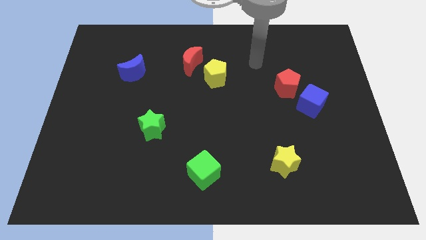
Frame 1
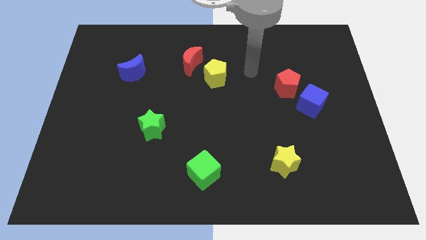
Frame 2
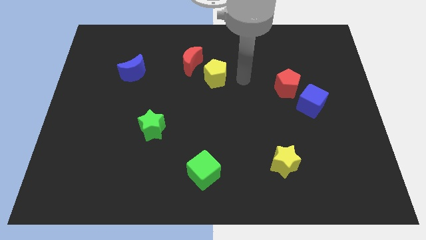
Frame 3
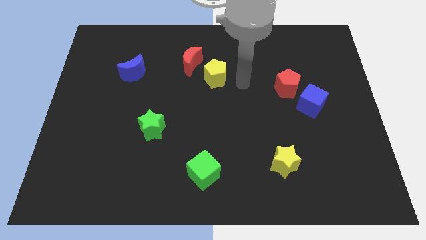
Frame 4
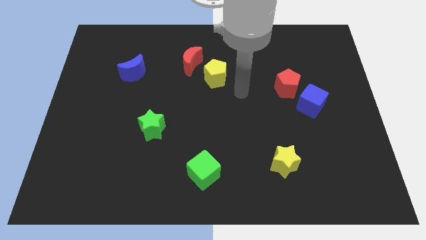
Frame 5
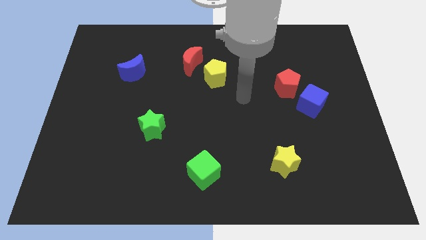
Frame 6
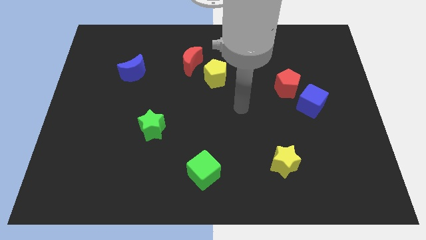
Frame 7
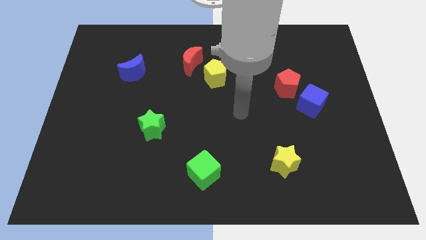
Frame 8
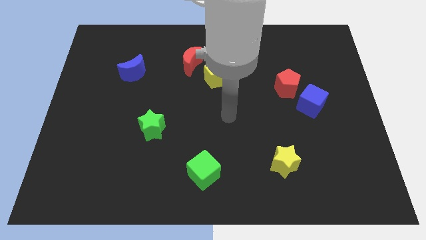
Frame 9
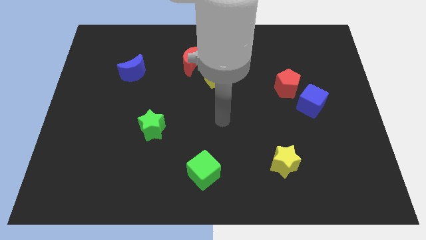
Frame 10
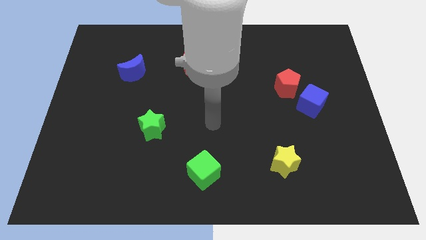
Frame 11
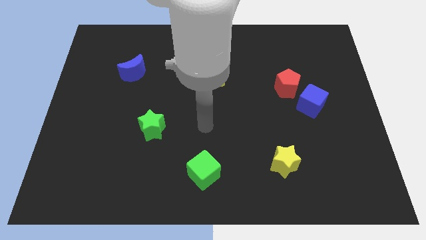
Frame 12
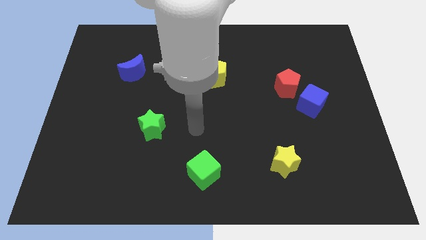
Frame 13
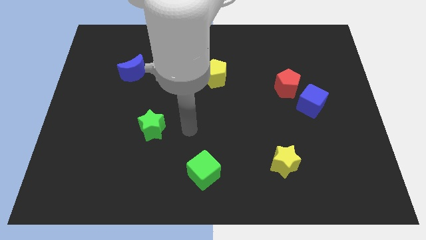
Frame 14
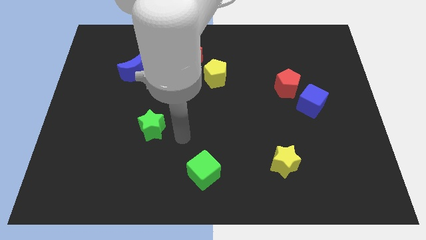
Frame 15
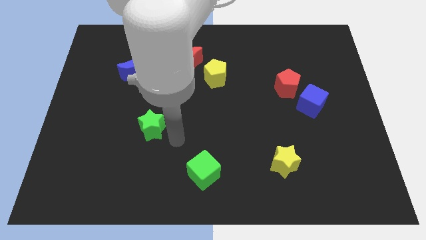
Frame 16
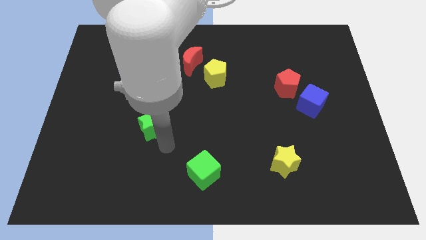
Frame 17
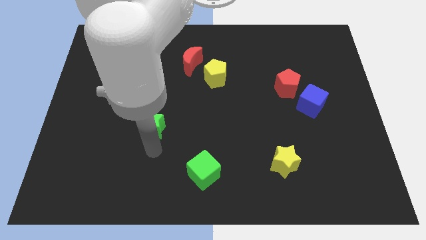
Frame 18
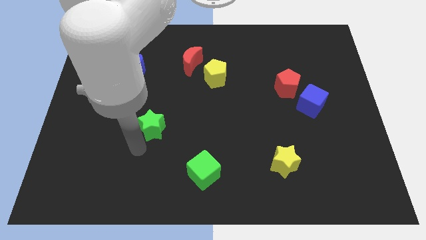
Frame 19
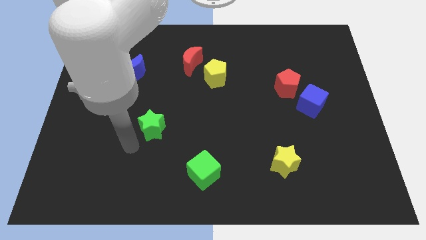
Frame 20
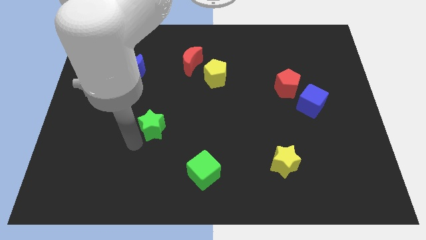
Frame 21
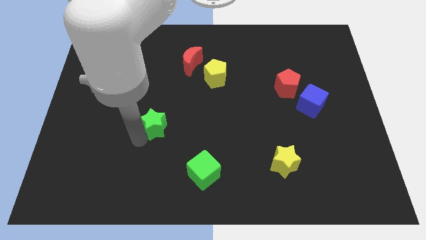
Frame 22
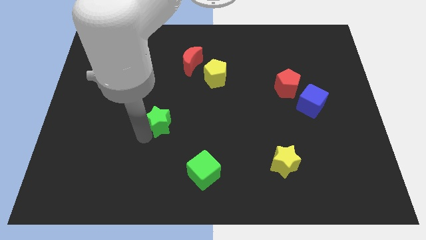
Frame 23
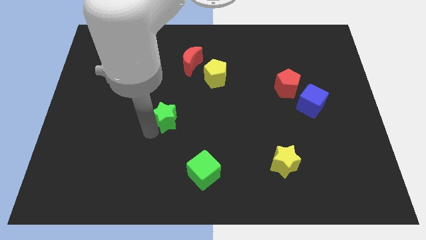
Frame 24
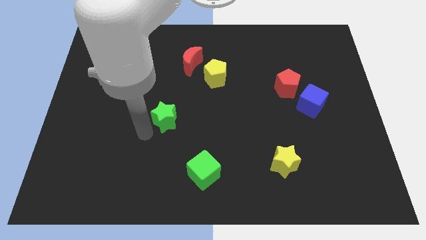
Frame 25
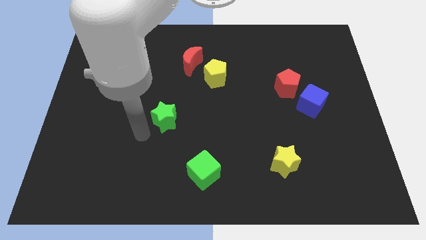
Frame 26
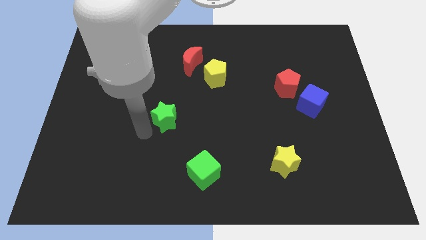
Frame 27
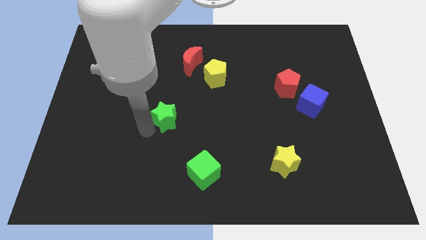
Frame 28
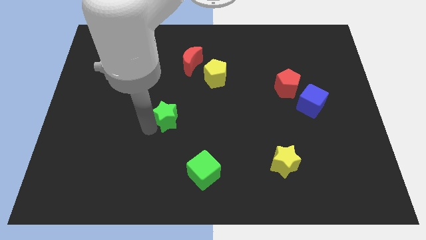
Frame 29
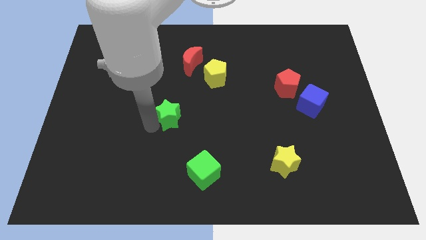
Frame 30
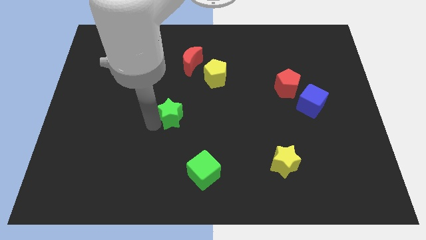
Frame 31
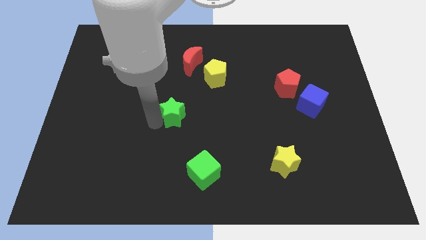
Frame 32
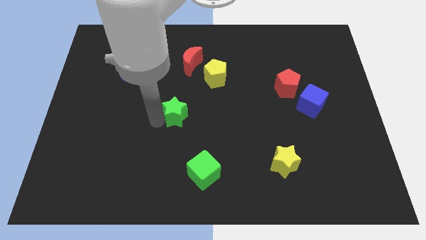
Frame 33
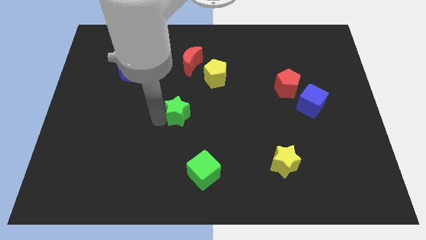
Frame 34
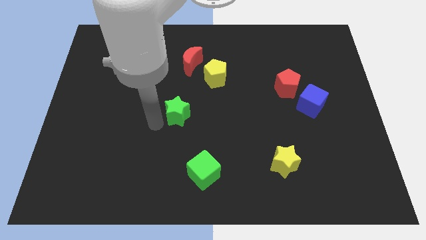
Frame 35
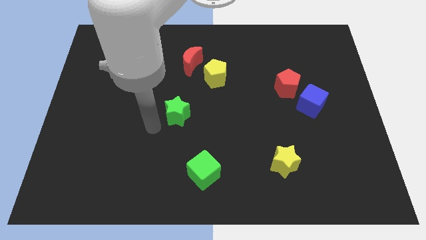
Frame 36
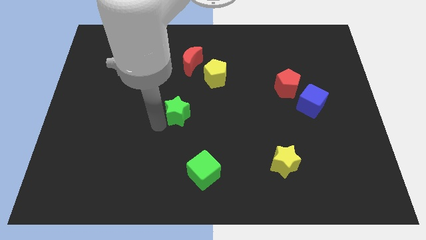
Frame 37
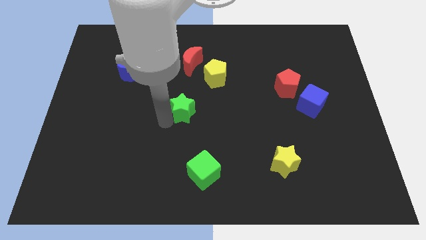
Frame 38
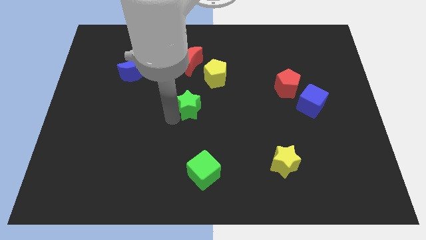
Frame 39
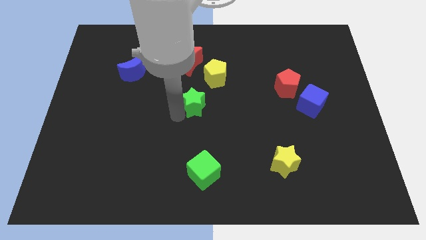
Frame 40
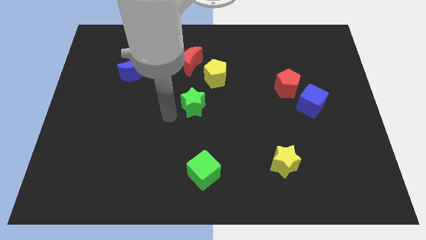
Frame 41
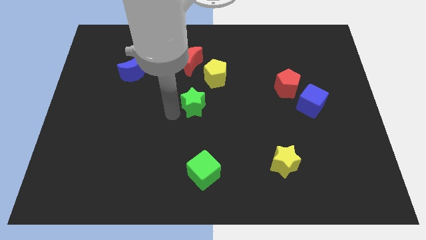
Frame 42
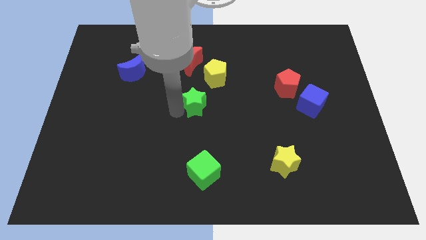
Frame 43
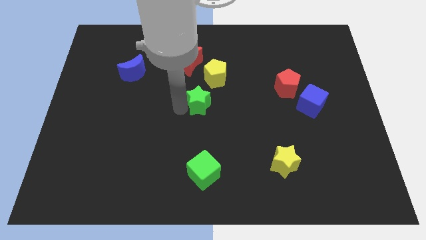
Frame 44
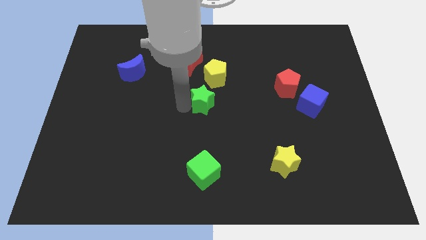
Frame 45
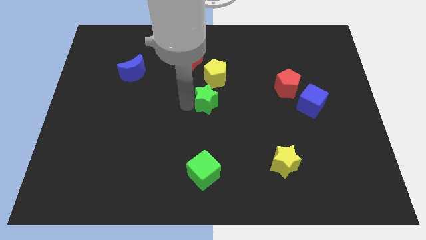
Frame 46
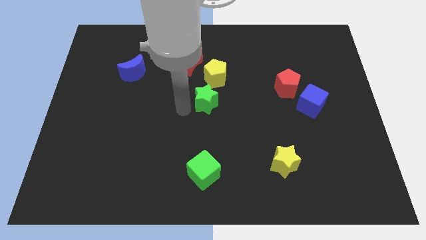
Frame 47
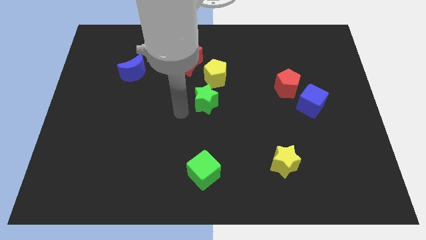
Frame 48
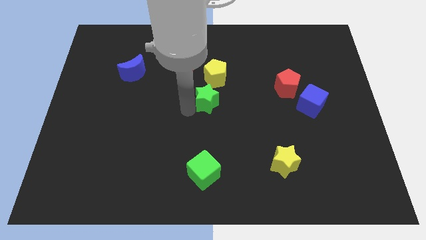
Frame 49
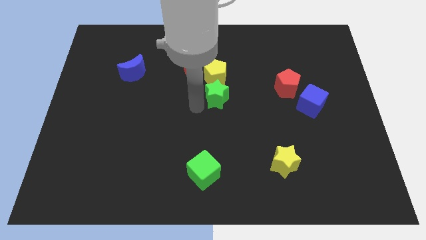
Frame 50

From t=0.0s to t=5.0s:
push the green star to the bottom right side of the yellow pentagon

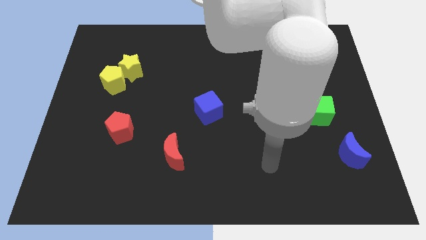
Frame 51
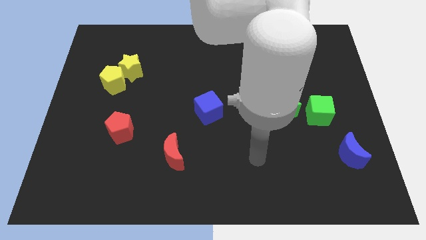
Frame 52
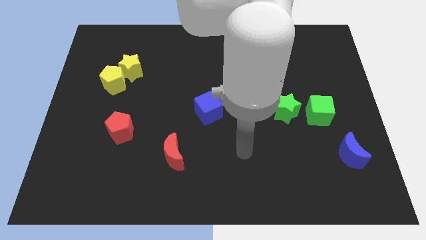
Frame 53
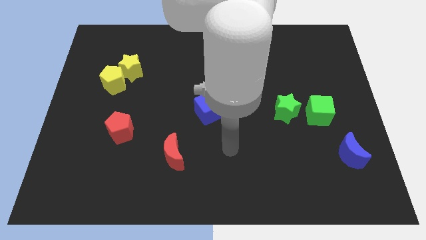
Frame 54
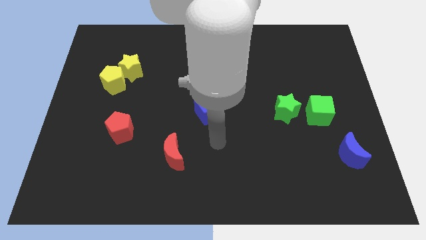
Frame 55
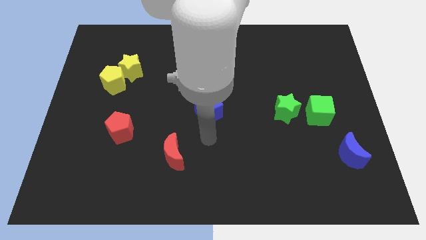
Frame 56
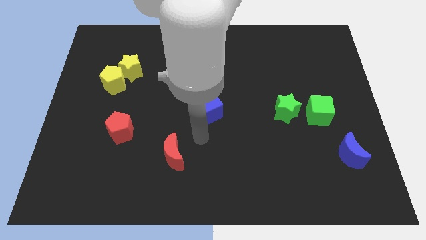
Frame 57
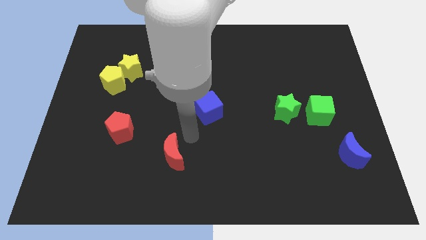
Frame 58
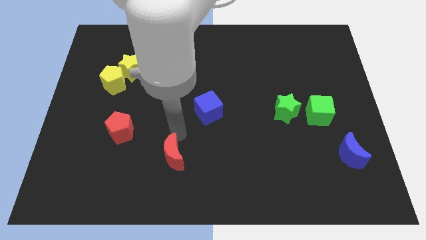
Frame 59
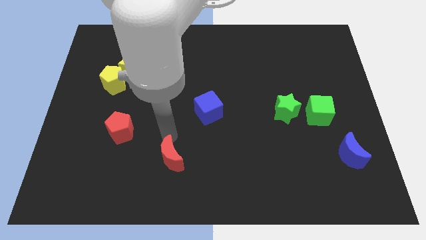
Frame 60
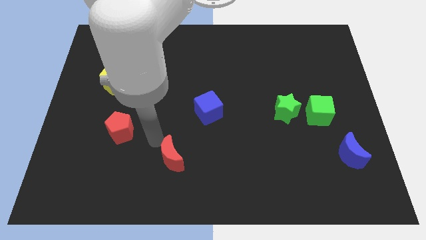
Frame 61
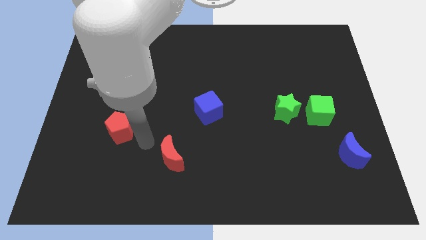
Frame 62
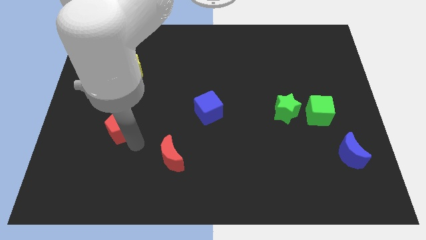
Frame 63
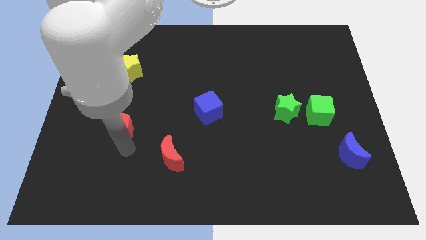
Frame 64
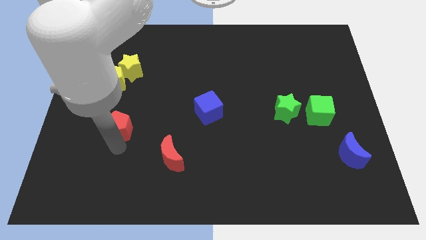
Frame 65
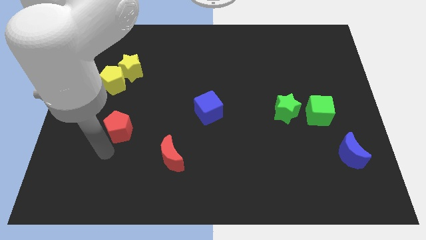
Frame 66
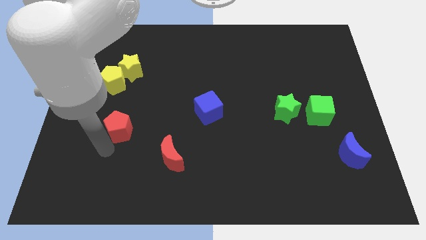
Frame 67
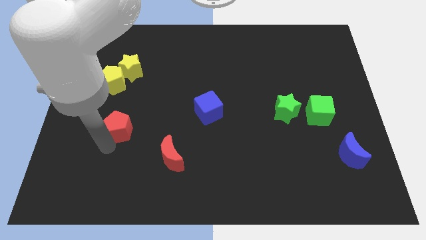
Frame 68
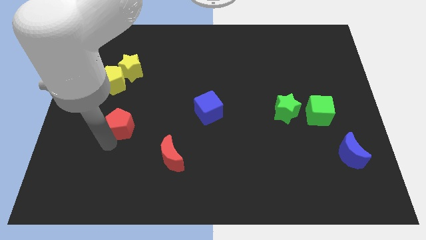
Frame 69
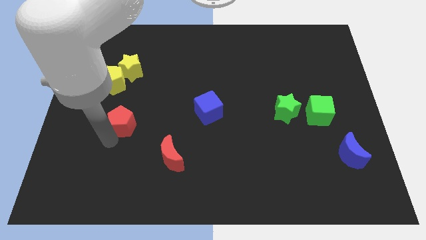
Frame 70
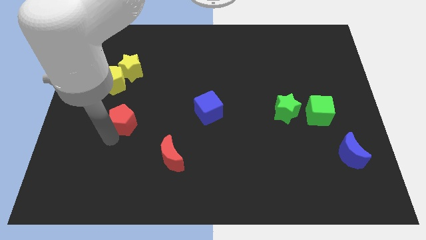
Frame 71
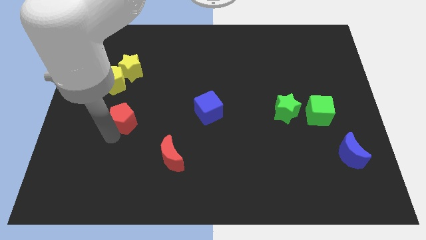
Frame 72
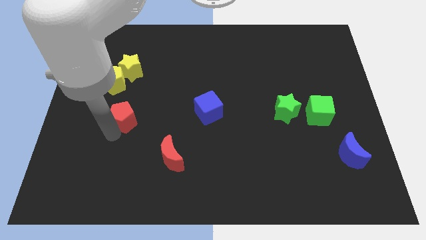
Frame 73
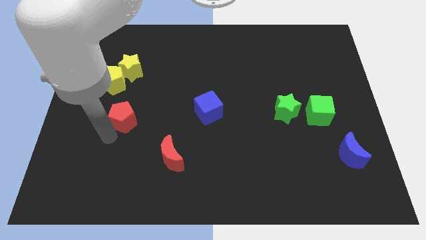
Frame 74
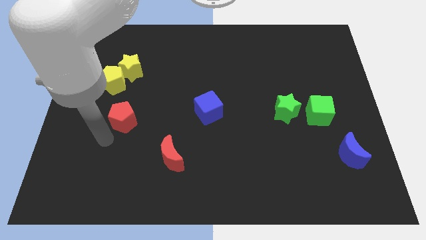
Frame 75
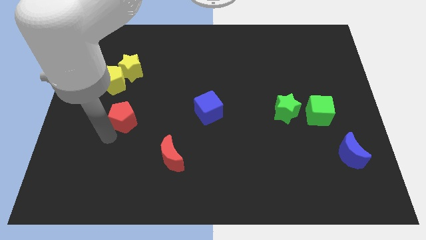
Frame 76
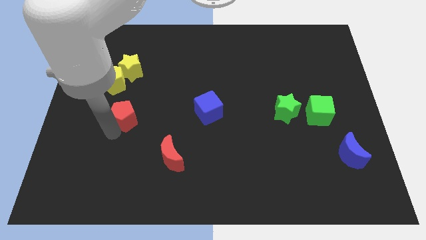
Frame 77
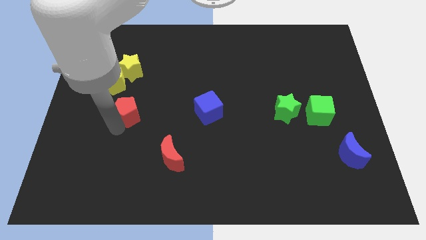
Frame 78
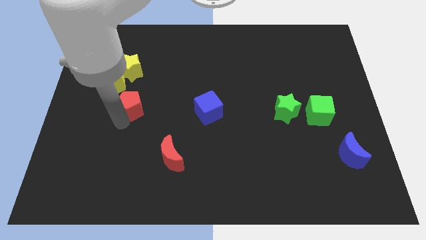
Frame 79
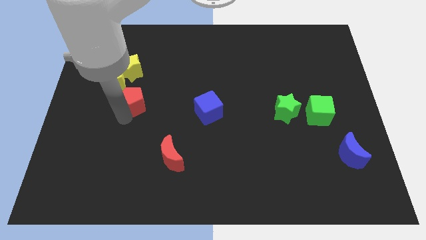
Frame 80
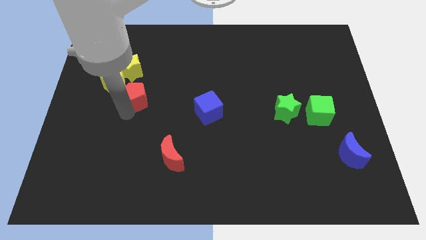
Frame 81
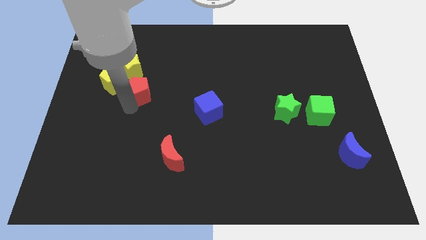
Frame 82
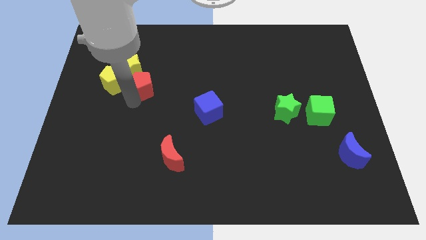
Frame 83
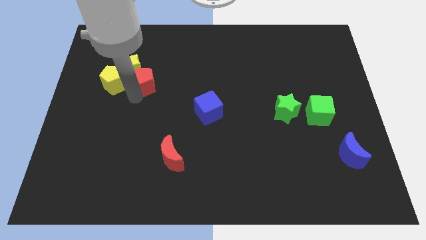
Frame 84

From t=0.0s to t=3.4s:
put the red pentagon right of the yellow star
